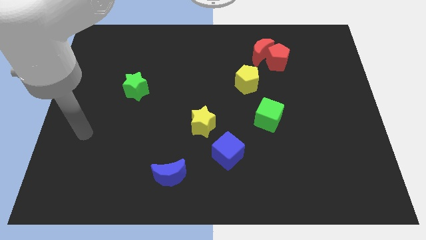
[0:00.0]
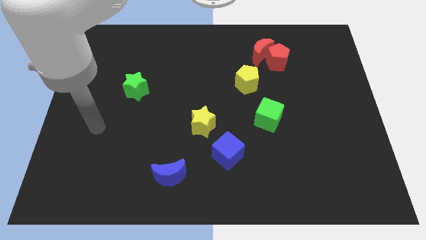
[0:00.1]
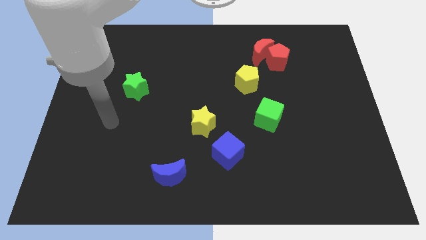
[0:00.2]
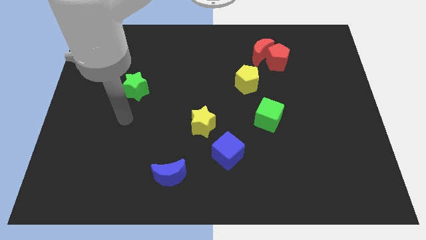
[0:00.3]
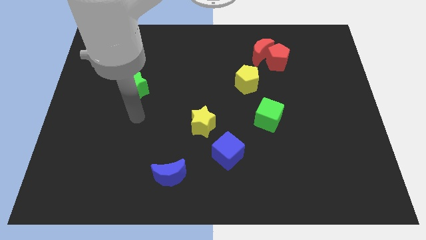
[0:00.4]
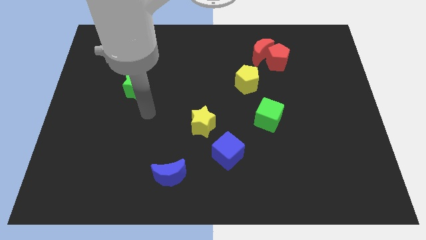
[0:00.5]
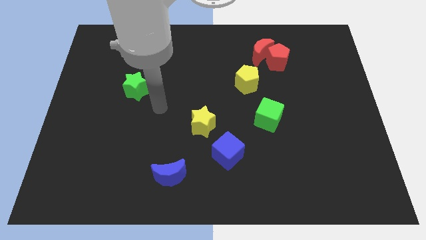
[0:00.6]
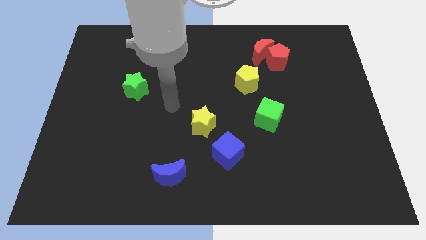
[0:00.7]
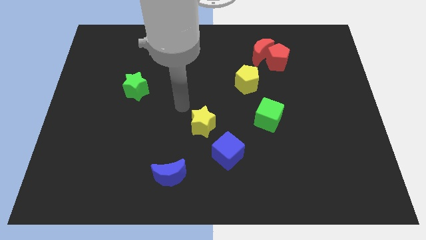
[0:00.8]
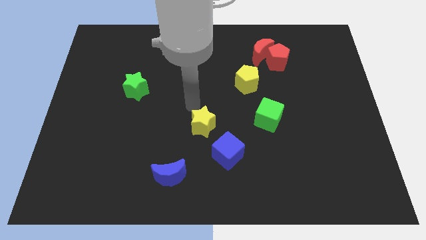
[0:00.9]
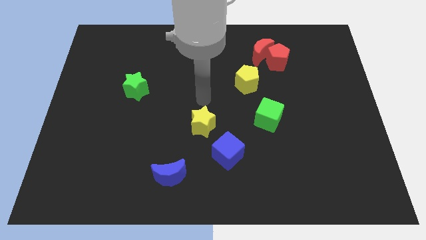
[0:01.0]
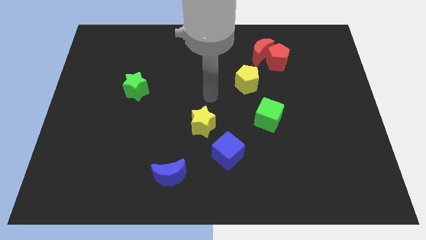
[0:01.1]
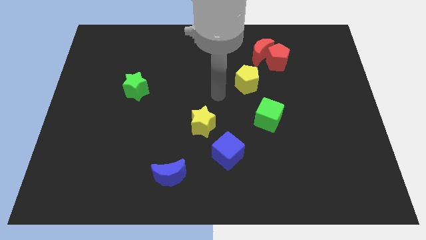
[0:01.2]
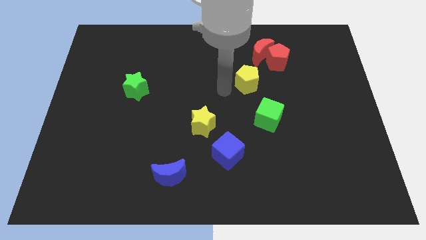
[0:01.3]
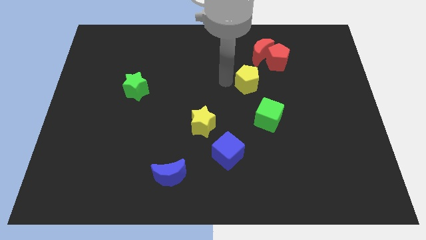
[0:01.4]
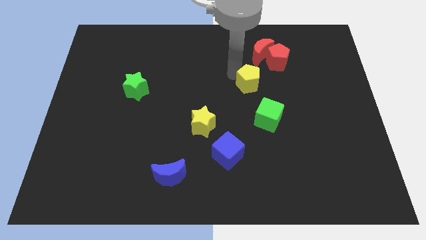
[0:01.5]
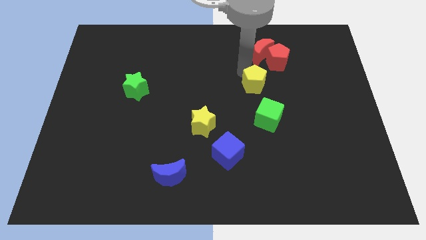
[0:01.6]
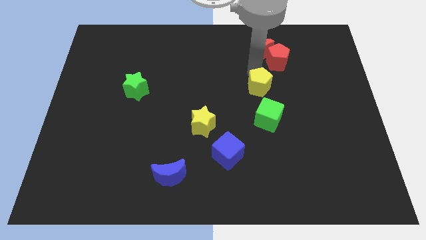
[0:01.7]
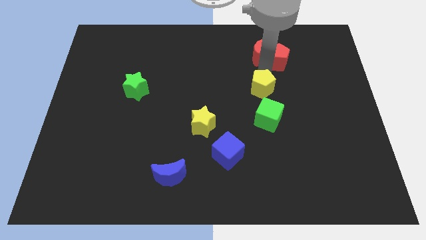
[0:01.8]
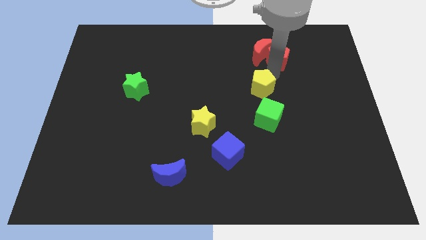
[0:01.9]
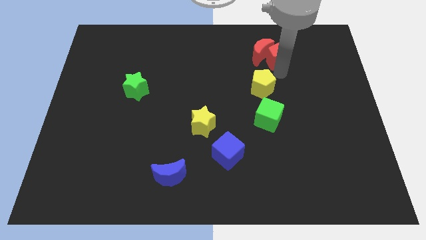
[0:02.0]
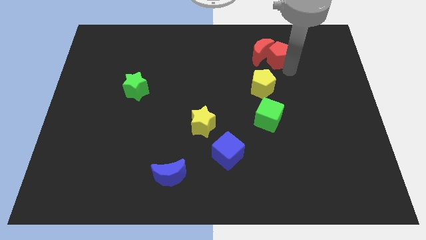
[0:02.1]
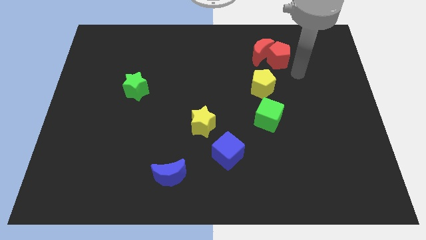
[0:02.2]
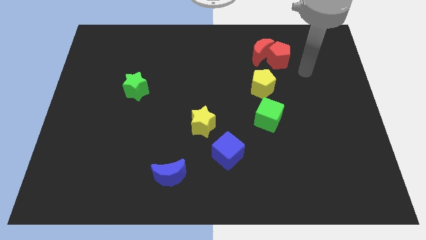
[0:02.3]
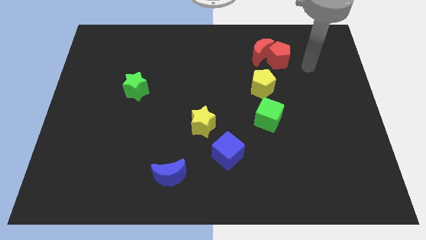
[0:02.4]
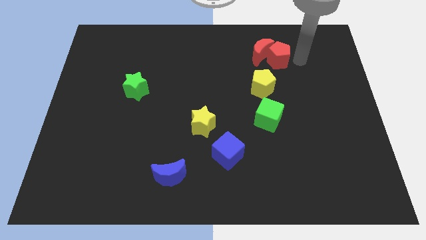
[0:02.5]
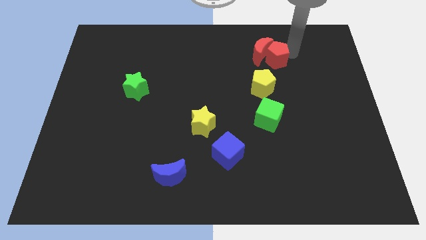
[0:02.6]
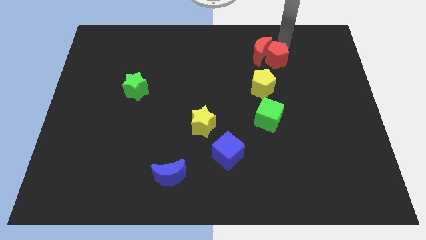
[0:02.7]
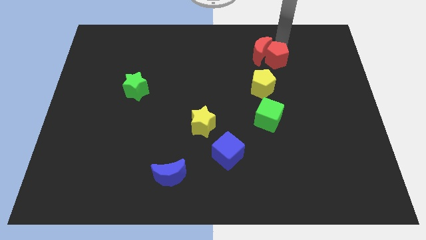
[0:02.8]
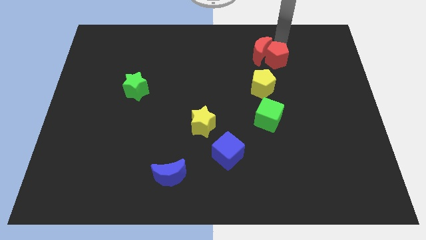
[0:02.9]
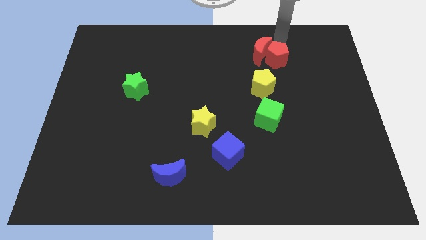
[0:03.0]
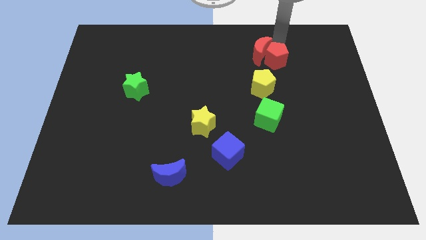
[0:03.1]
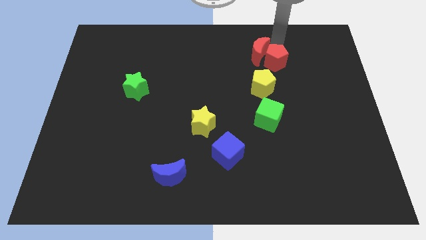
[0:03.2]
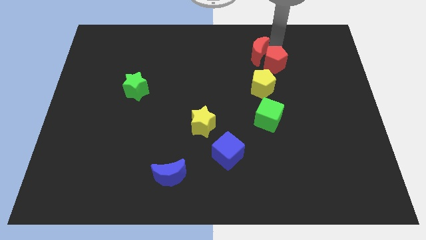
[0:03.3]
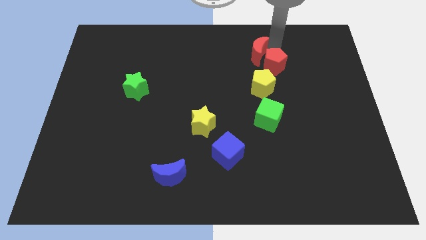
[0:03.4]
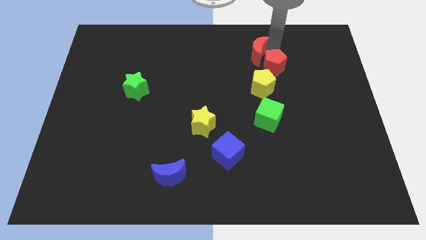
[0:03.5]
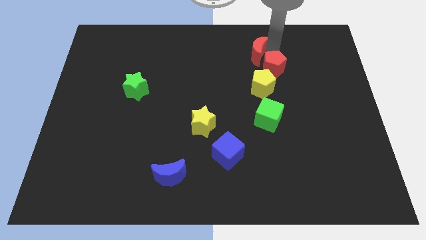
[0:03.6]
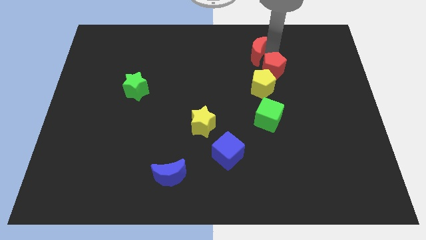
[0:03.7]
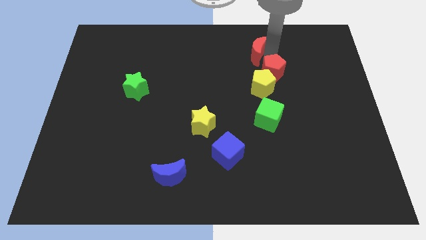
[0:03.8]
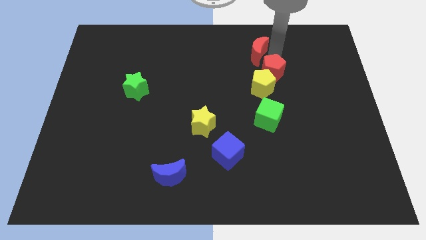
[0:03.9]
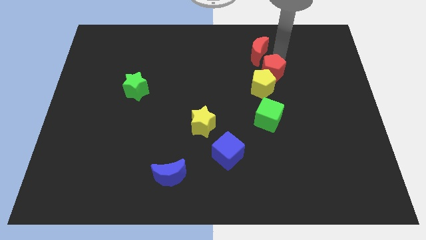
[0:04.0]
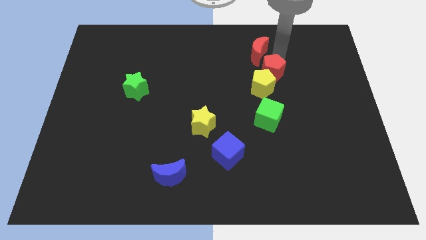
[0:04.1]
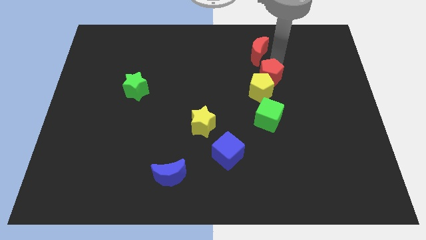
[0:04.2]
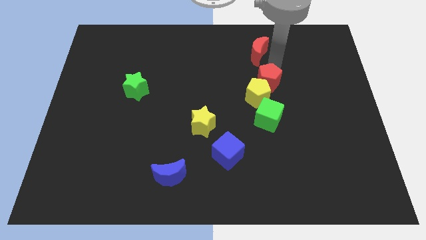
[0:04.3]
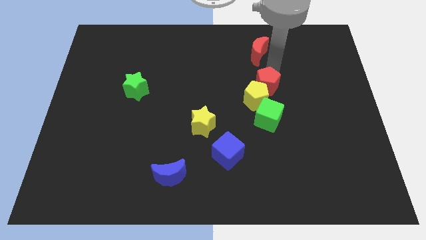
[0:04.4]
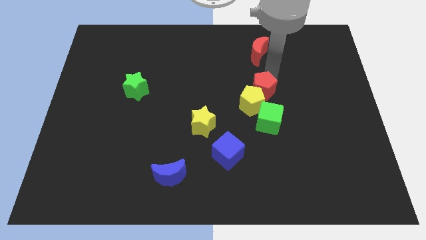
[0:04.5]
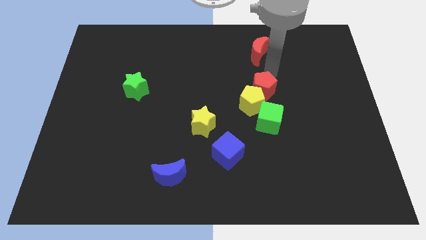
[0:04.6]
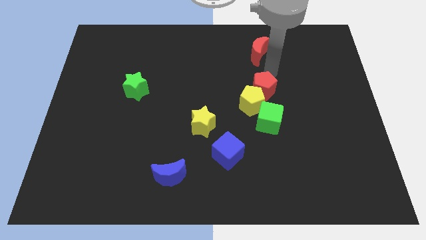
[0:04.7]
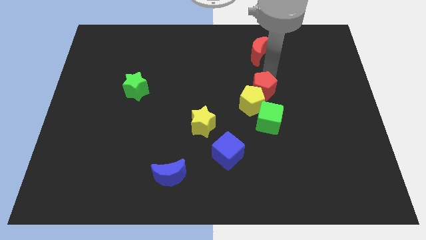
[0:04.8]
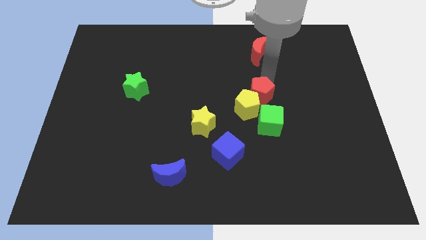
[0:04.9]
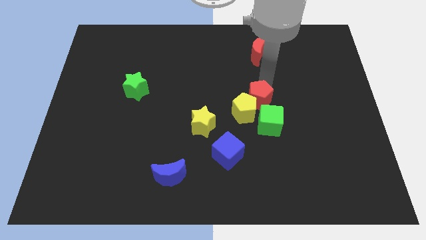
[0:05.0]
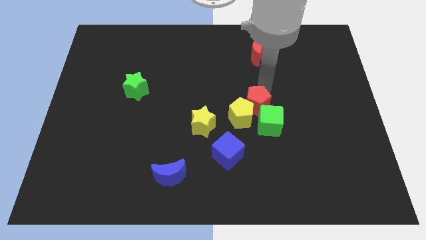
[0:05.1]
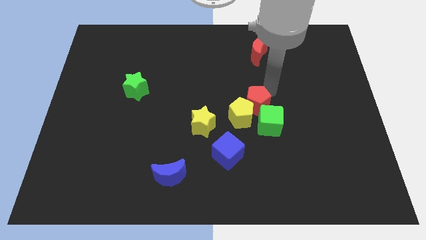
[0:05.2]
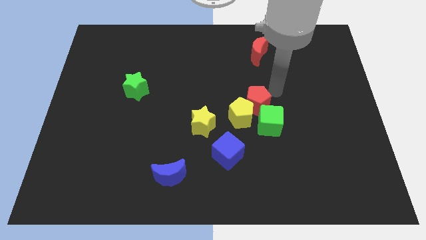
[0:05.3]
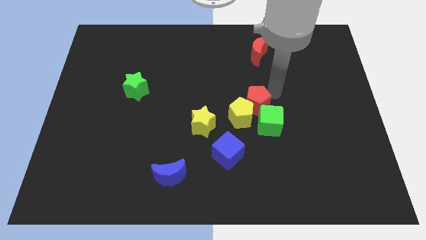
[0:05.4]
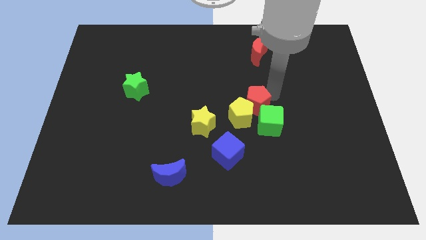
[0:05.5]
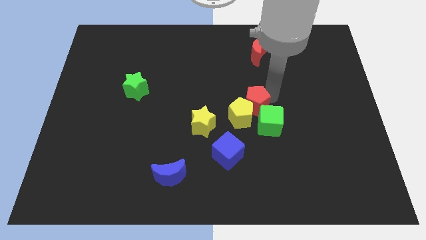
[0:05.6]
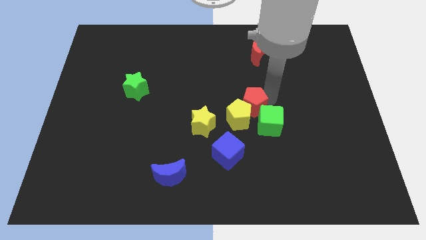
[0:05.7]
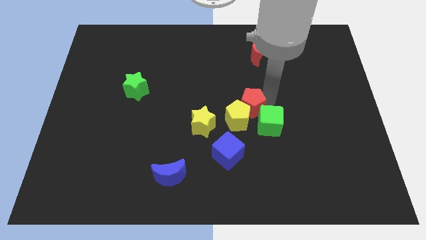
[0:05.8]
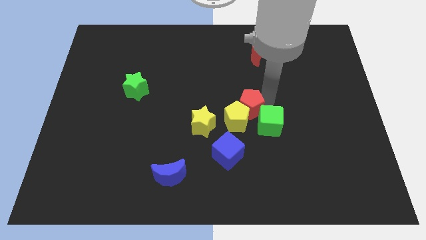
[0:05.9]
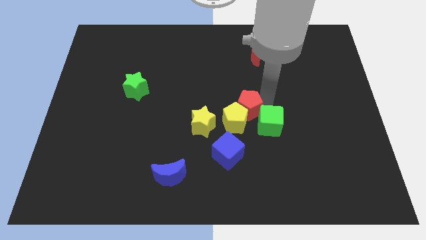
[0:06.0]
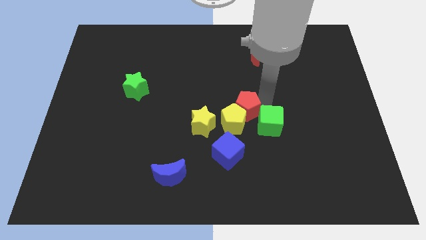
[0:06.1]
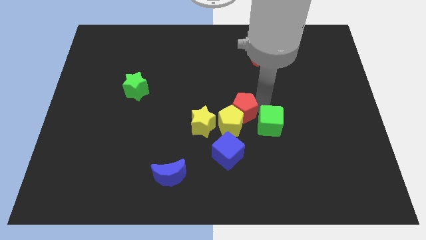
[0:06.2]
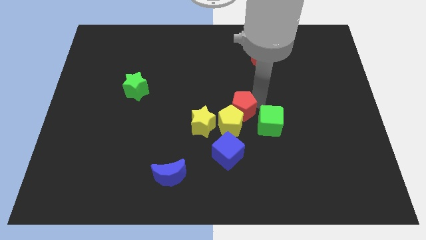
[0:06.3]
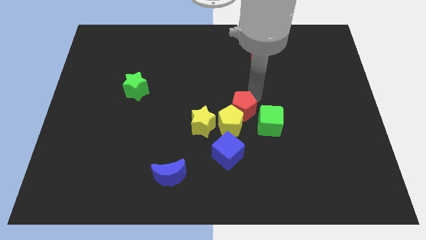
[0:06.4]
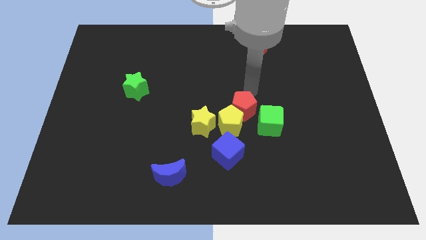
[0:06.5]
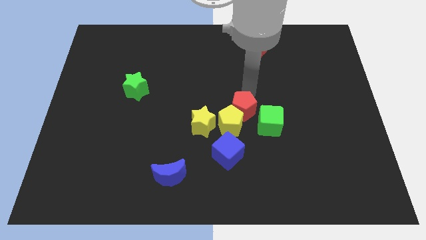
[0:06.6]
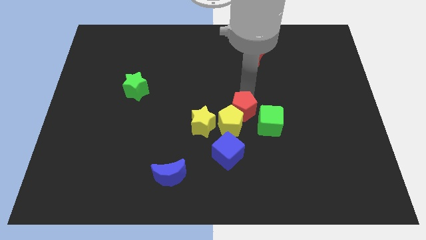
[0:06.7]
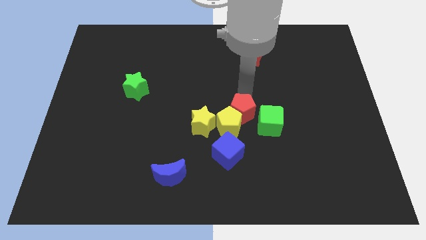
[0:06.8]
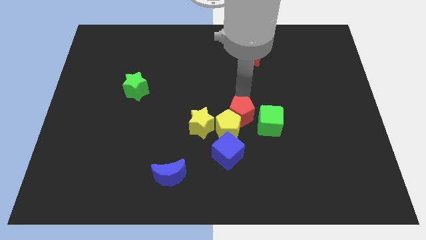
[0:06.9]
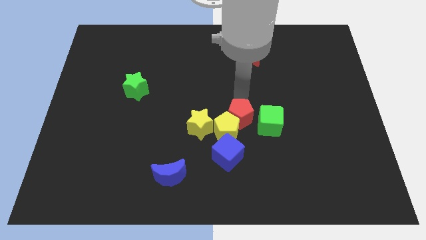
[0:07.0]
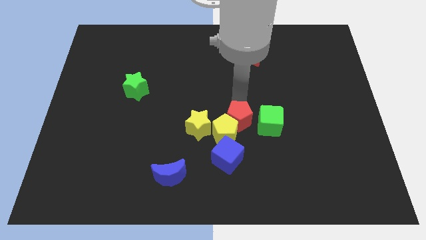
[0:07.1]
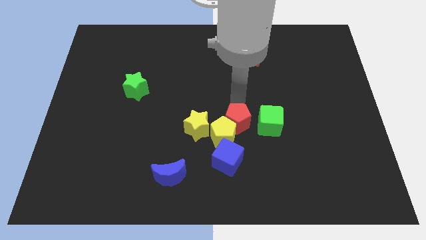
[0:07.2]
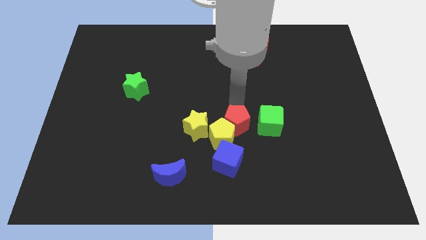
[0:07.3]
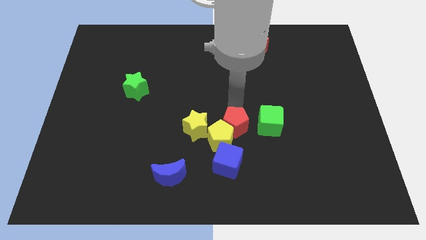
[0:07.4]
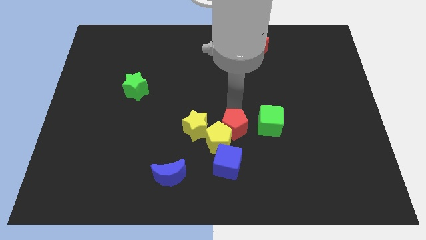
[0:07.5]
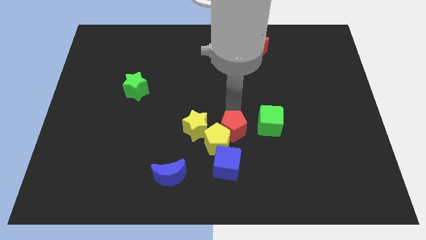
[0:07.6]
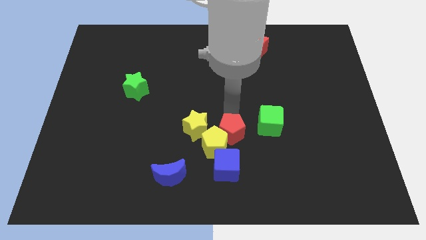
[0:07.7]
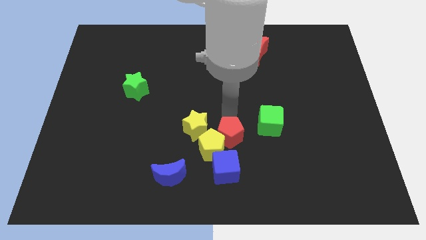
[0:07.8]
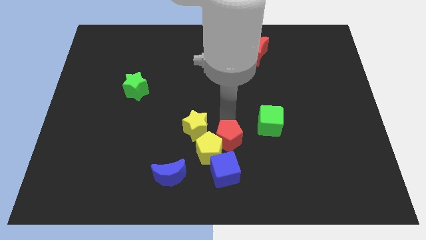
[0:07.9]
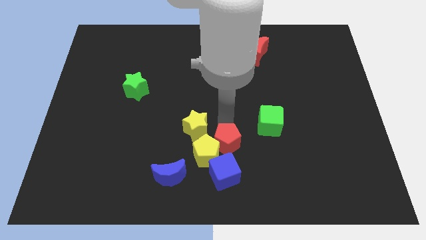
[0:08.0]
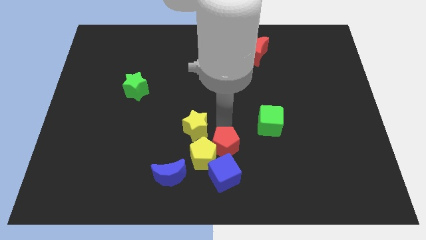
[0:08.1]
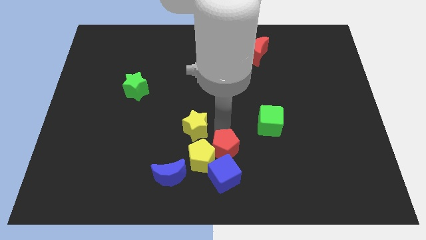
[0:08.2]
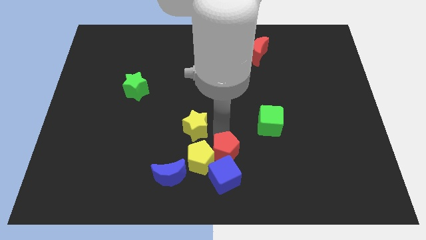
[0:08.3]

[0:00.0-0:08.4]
push the red pentagon towards the blue cube
